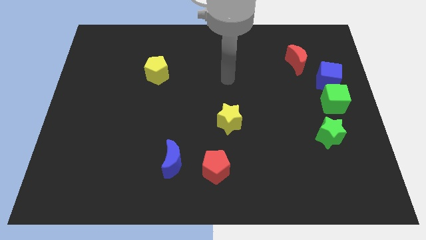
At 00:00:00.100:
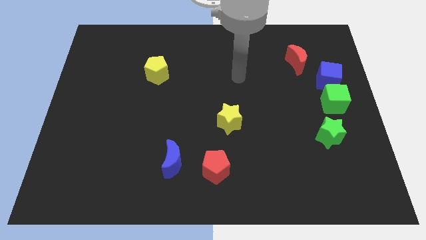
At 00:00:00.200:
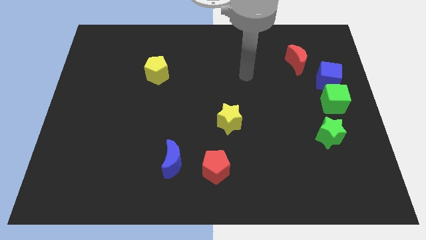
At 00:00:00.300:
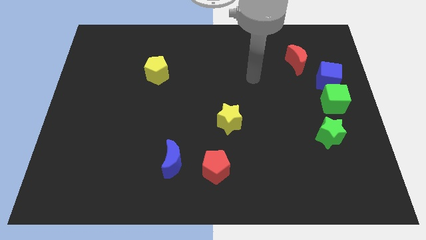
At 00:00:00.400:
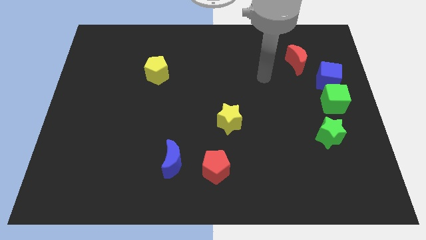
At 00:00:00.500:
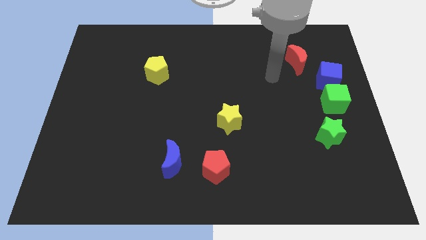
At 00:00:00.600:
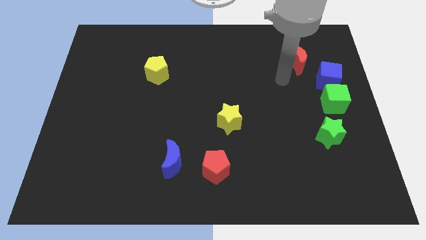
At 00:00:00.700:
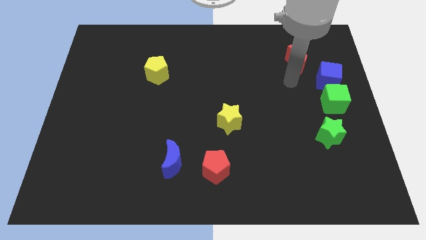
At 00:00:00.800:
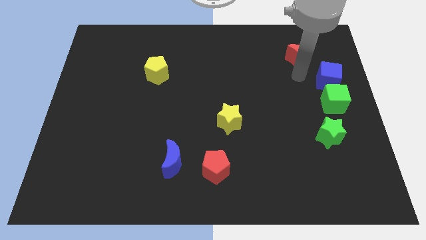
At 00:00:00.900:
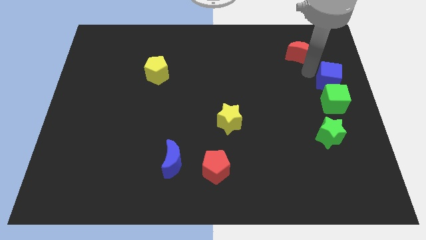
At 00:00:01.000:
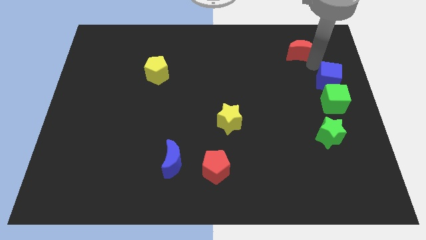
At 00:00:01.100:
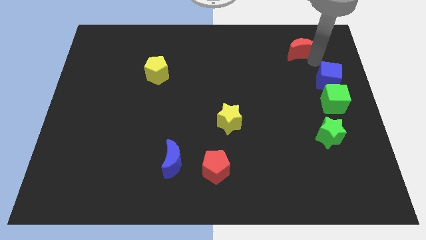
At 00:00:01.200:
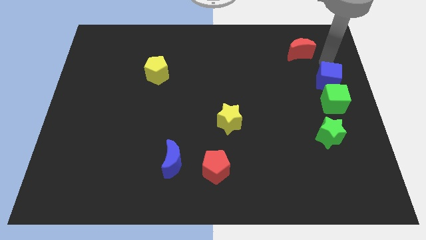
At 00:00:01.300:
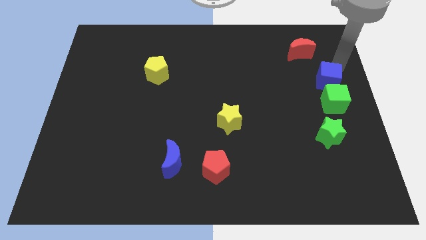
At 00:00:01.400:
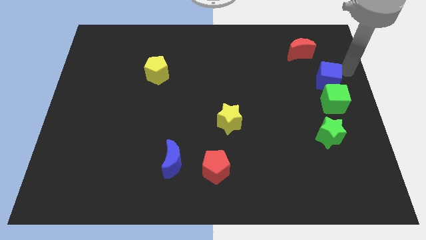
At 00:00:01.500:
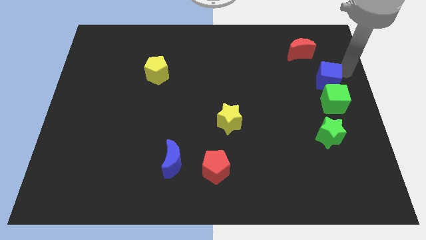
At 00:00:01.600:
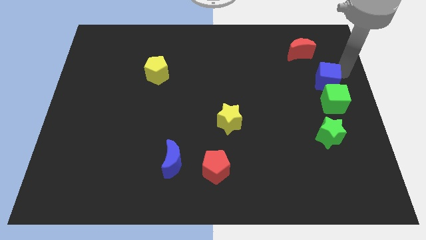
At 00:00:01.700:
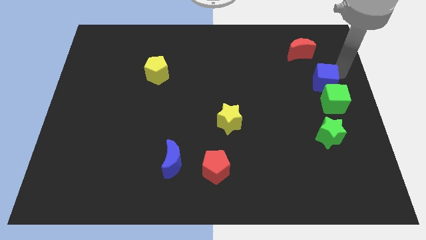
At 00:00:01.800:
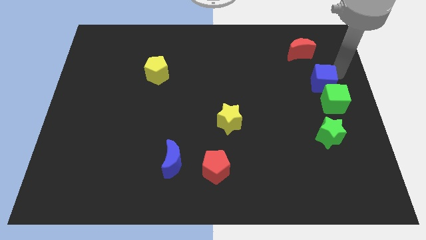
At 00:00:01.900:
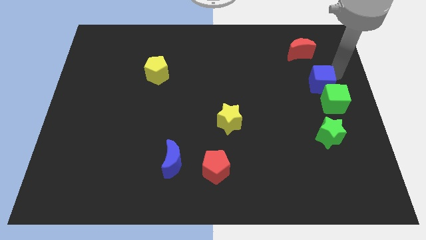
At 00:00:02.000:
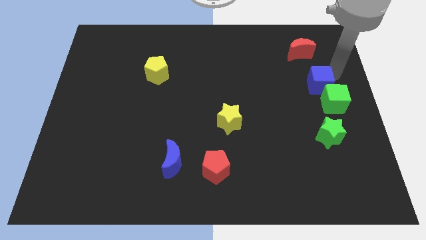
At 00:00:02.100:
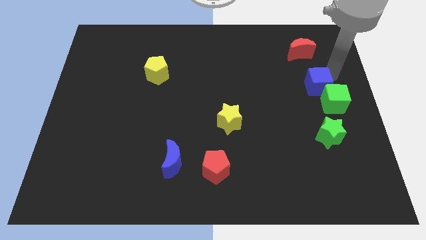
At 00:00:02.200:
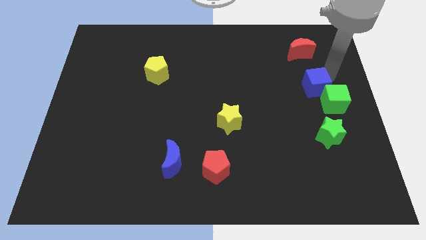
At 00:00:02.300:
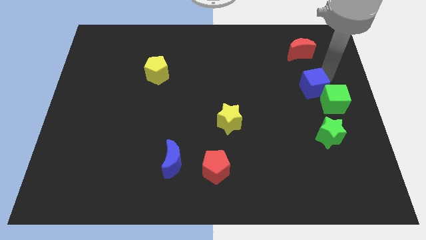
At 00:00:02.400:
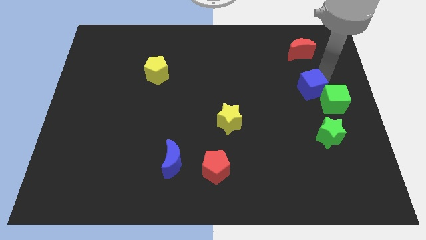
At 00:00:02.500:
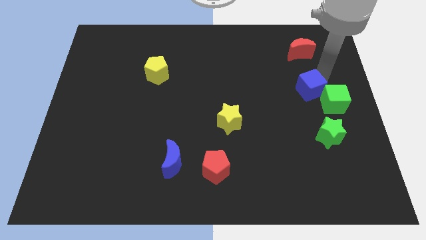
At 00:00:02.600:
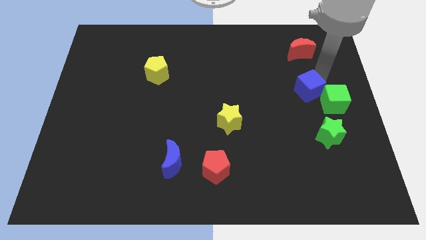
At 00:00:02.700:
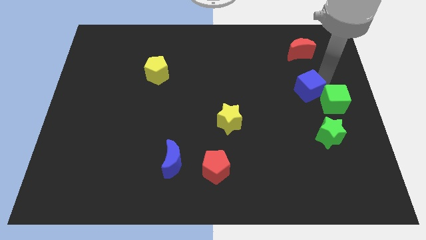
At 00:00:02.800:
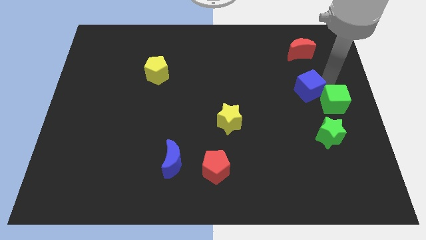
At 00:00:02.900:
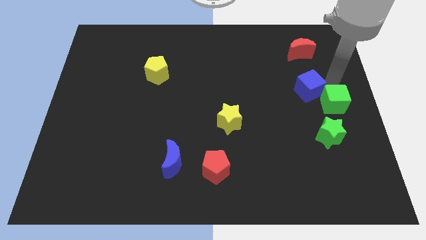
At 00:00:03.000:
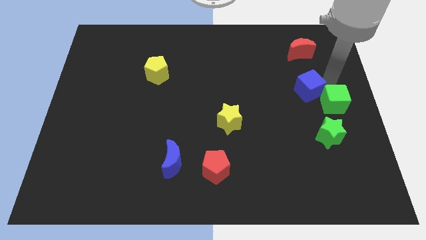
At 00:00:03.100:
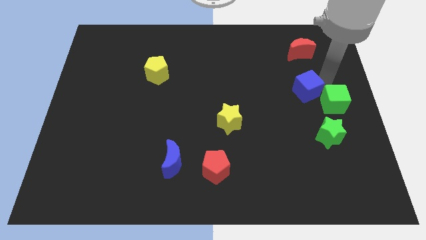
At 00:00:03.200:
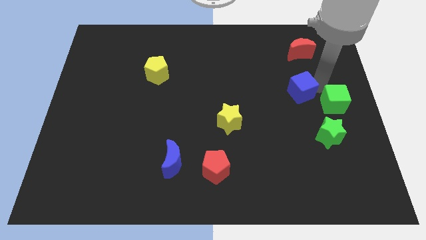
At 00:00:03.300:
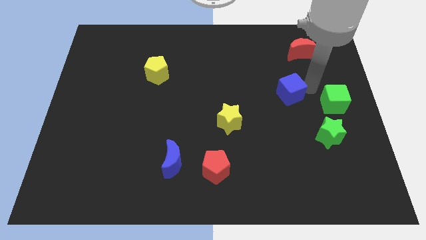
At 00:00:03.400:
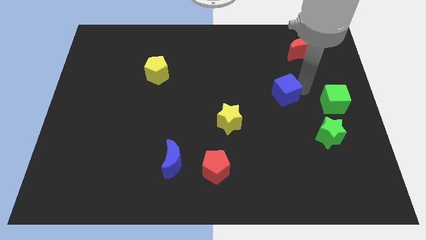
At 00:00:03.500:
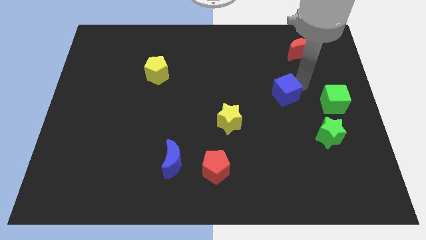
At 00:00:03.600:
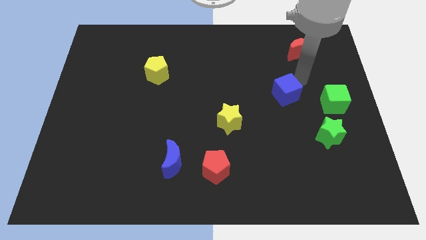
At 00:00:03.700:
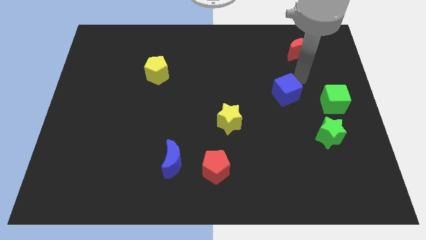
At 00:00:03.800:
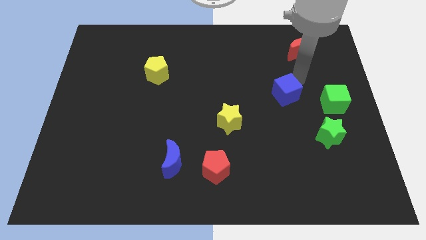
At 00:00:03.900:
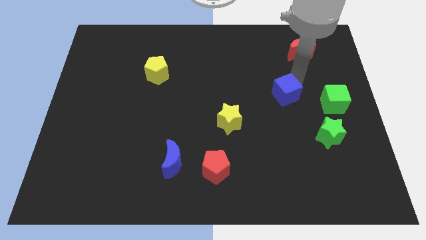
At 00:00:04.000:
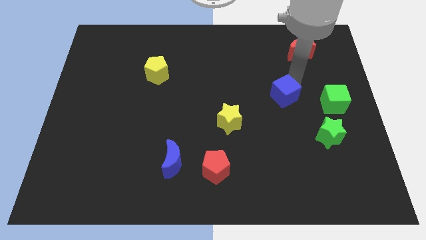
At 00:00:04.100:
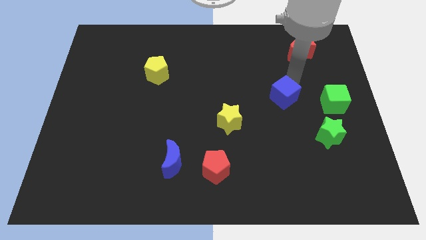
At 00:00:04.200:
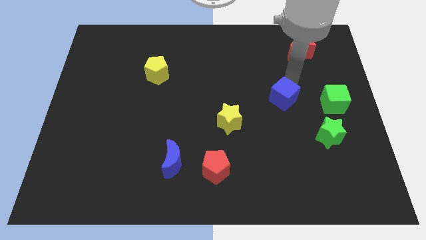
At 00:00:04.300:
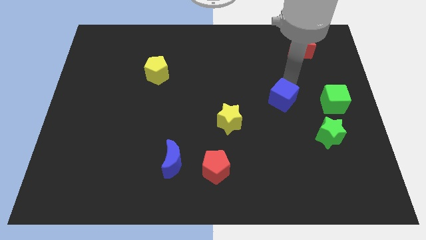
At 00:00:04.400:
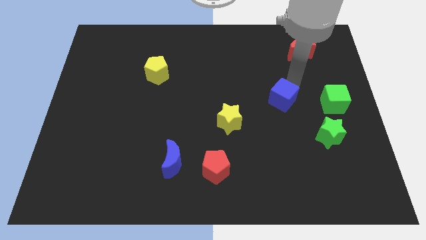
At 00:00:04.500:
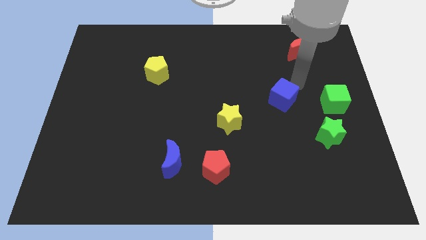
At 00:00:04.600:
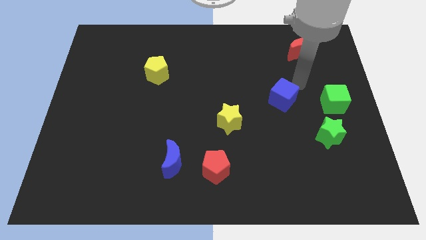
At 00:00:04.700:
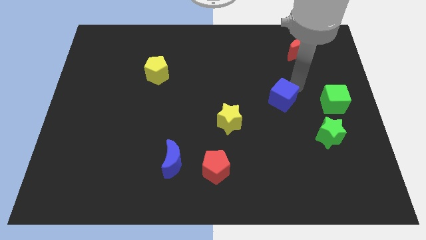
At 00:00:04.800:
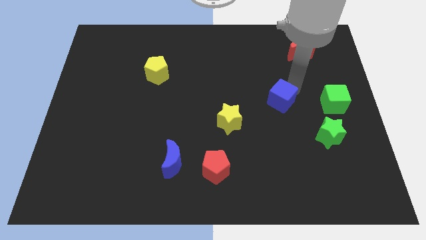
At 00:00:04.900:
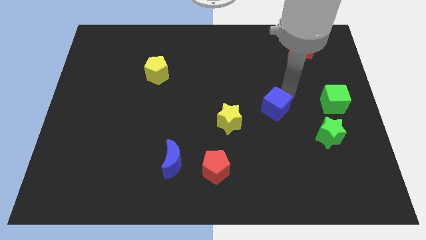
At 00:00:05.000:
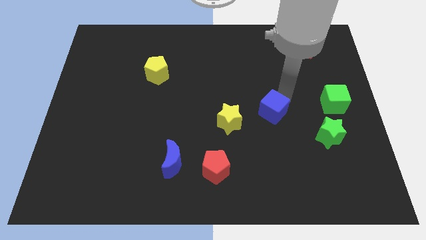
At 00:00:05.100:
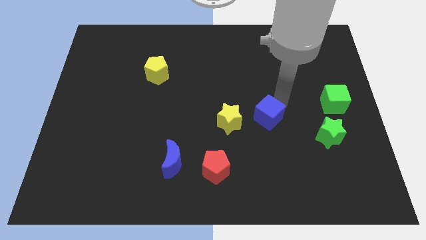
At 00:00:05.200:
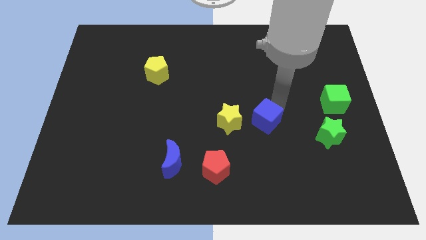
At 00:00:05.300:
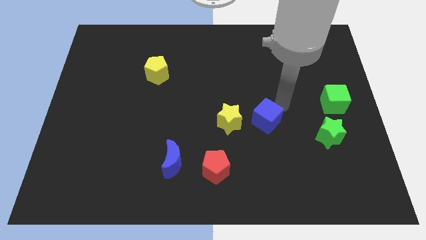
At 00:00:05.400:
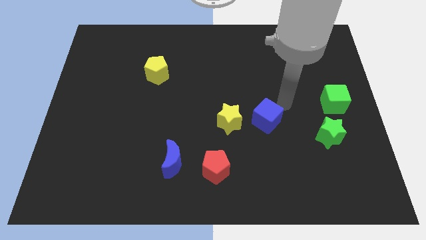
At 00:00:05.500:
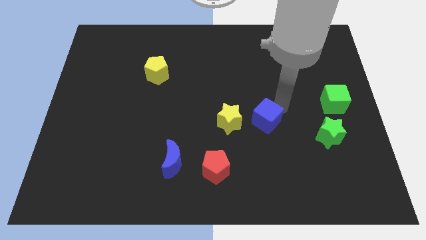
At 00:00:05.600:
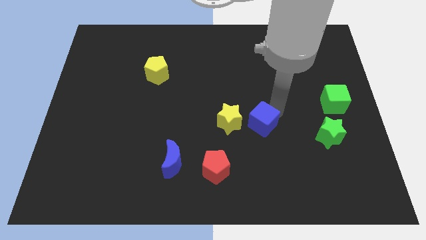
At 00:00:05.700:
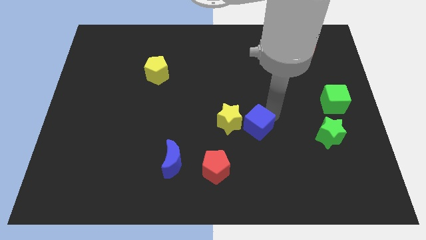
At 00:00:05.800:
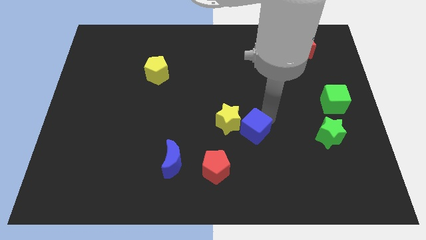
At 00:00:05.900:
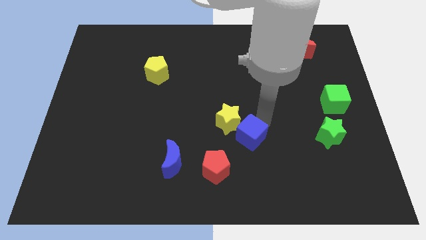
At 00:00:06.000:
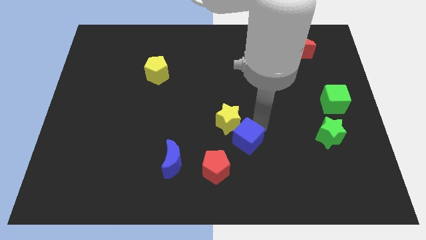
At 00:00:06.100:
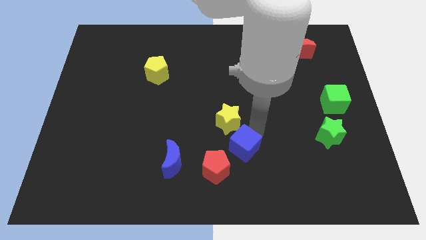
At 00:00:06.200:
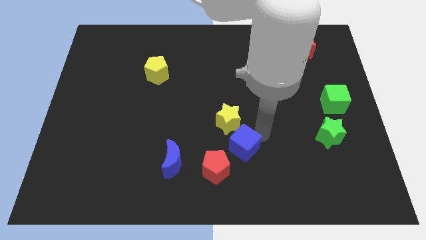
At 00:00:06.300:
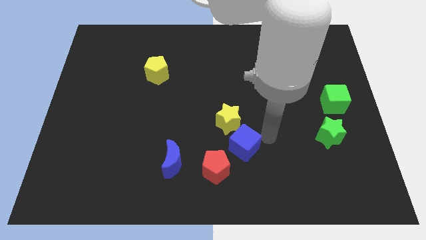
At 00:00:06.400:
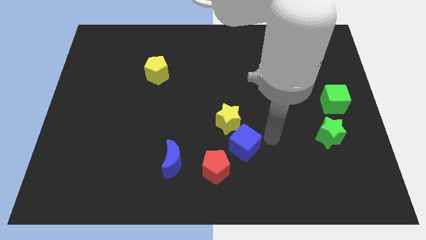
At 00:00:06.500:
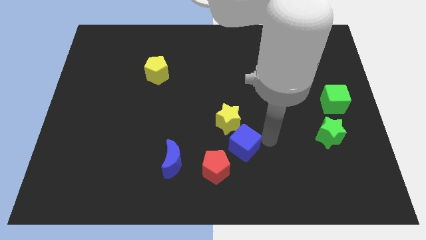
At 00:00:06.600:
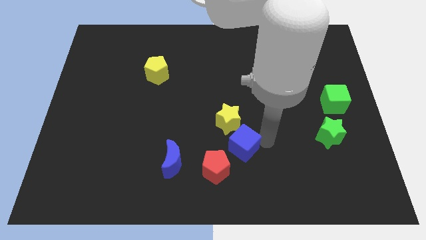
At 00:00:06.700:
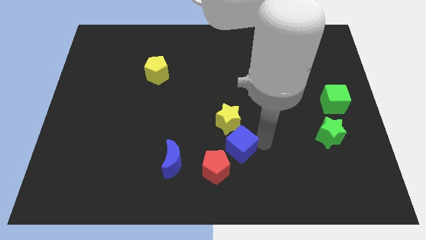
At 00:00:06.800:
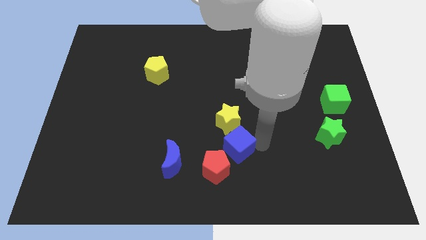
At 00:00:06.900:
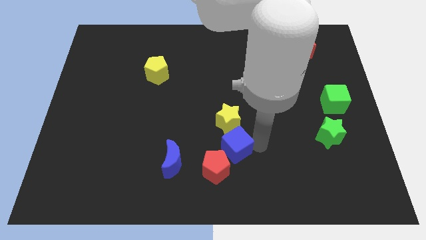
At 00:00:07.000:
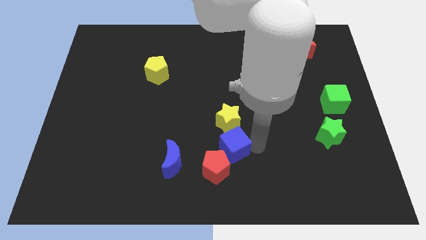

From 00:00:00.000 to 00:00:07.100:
push the blue cube next to the red pentagon
